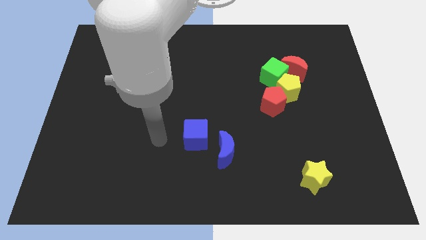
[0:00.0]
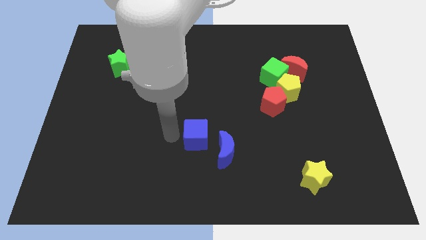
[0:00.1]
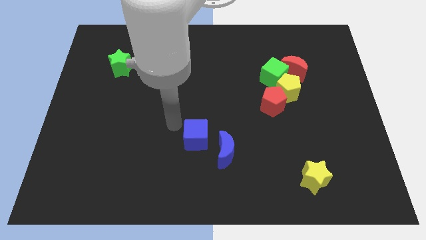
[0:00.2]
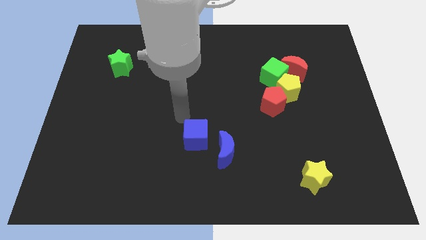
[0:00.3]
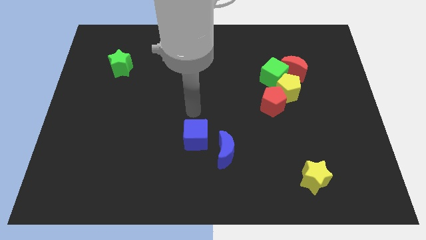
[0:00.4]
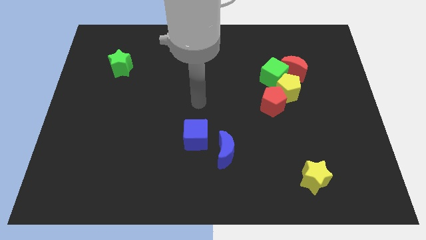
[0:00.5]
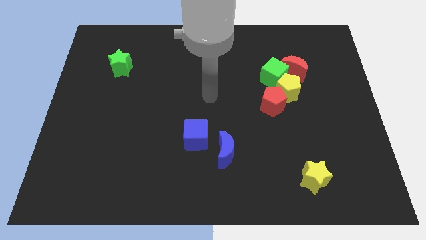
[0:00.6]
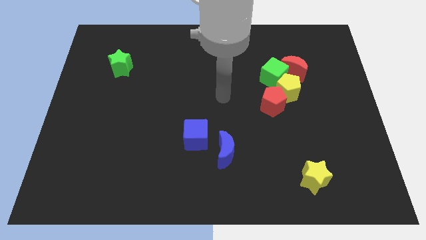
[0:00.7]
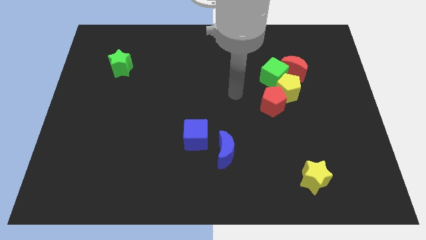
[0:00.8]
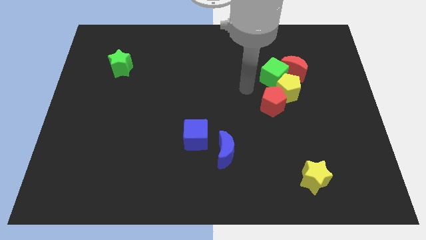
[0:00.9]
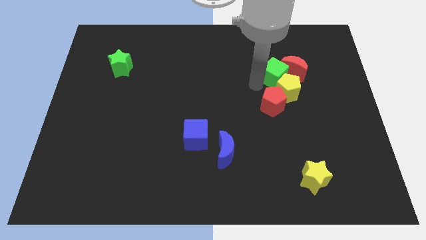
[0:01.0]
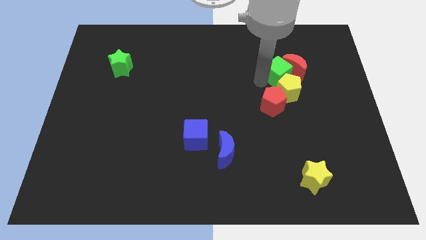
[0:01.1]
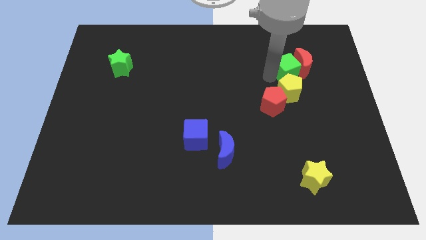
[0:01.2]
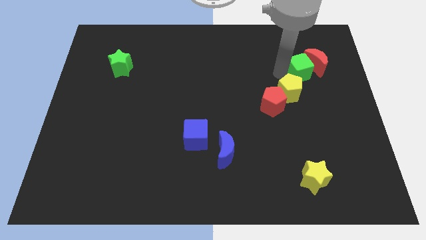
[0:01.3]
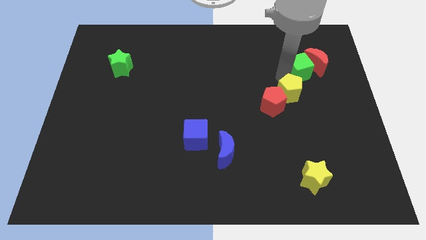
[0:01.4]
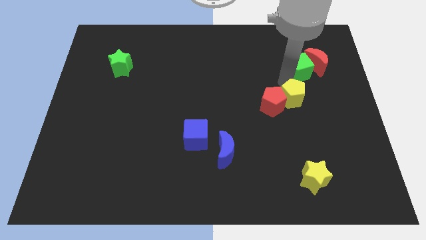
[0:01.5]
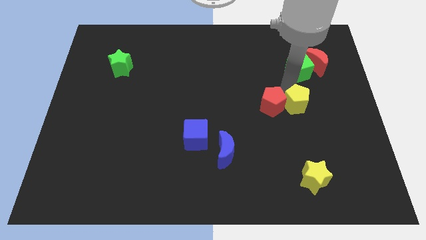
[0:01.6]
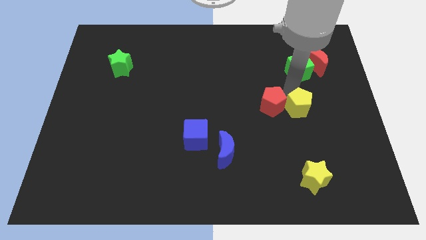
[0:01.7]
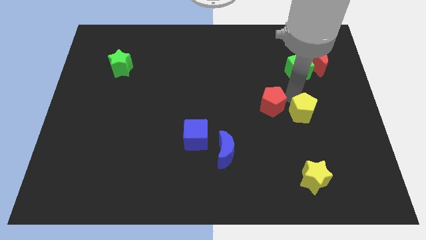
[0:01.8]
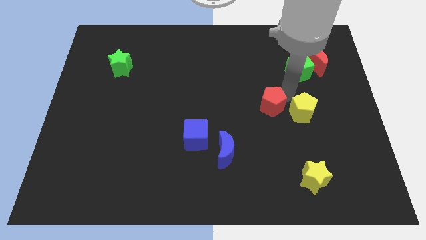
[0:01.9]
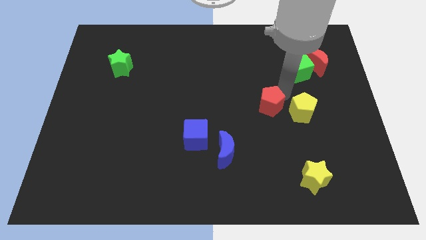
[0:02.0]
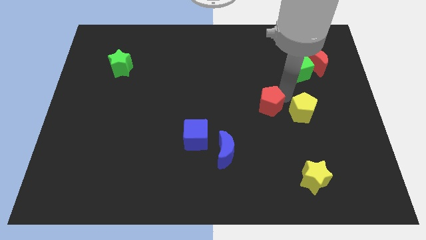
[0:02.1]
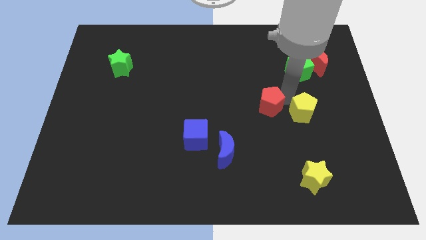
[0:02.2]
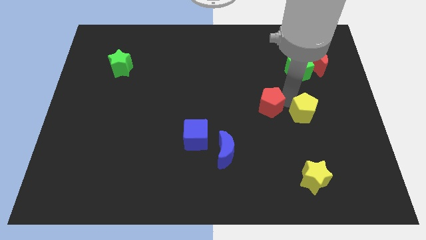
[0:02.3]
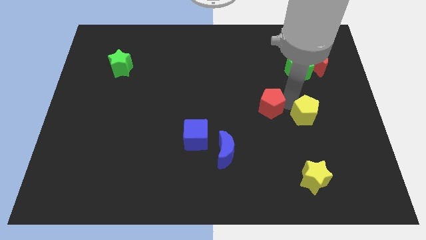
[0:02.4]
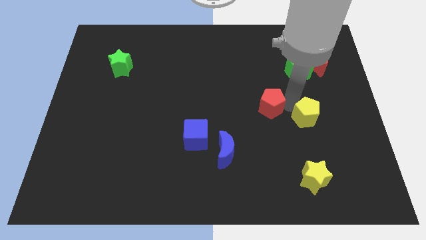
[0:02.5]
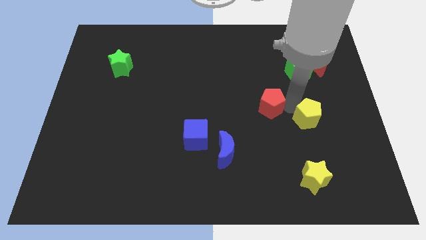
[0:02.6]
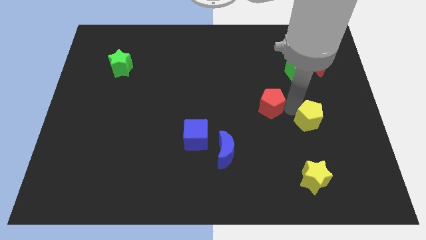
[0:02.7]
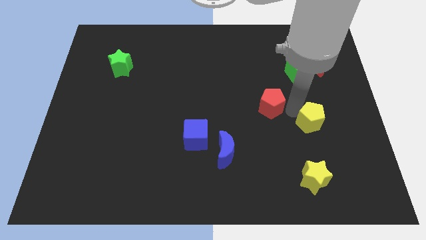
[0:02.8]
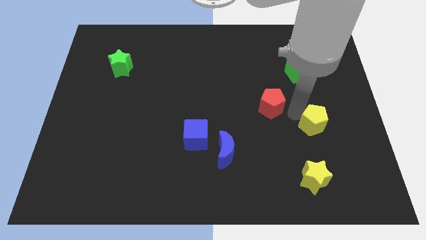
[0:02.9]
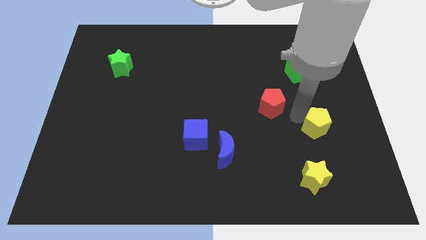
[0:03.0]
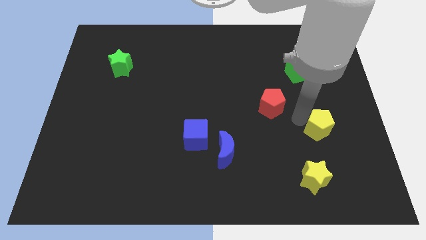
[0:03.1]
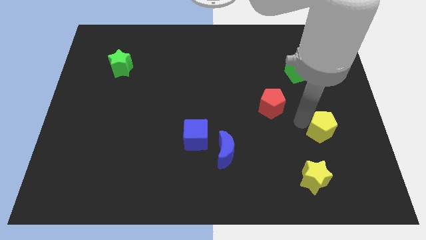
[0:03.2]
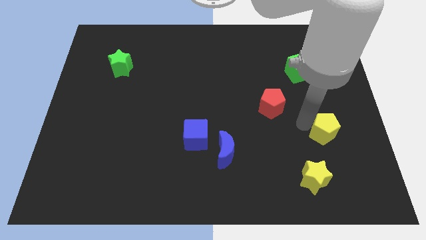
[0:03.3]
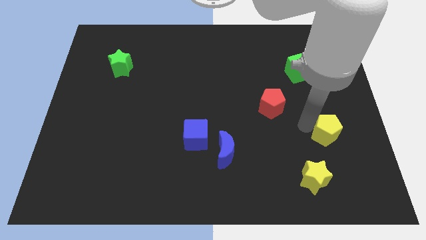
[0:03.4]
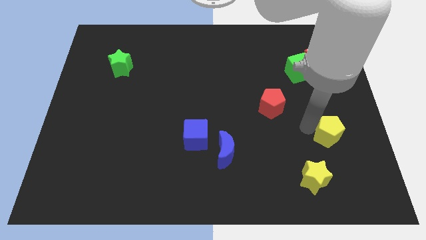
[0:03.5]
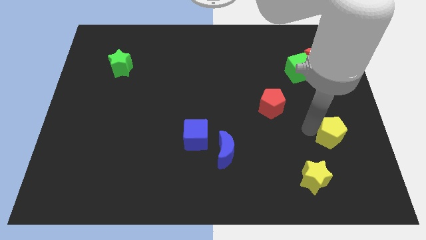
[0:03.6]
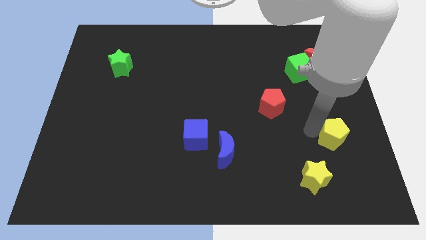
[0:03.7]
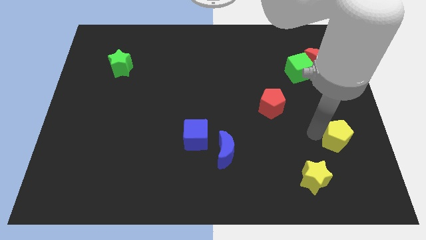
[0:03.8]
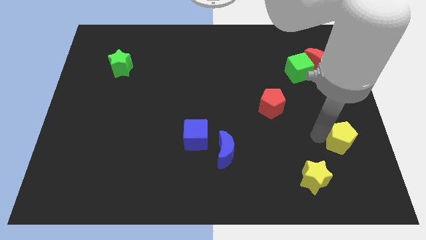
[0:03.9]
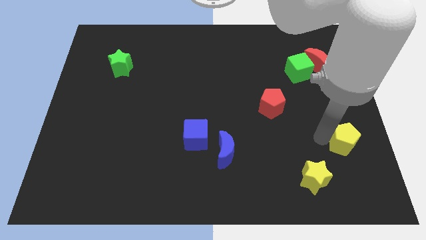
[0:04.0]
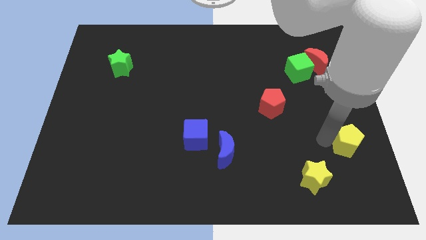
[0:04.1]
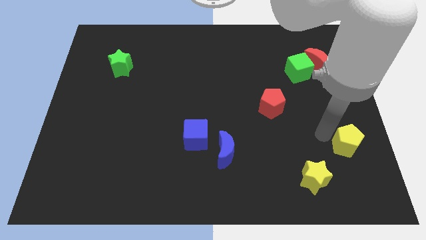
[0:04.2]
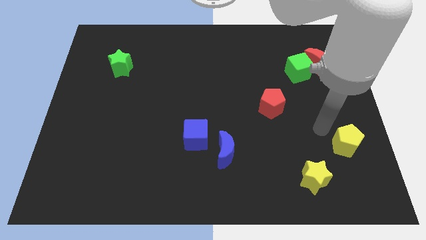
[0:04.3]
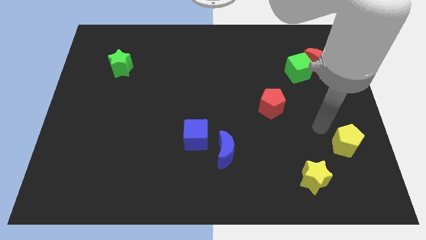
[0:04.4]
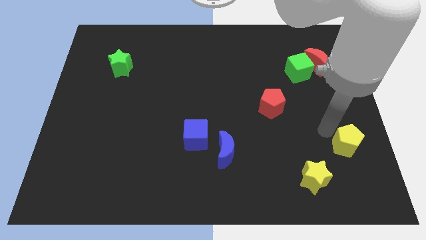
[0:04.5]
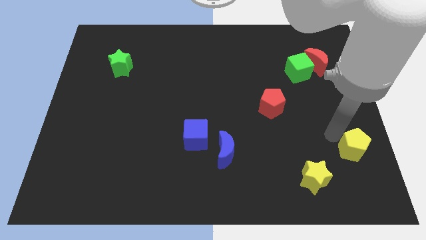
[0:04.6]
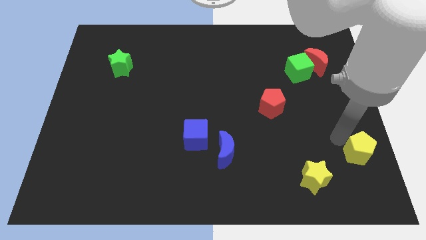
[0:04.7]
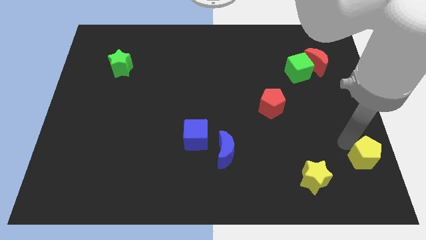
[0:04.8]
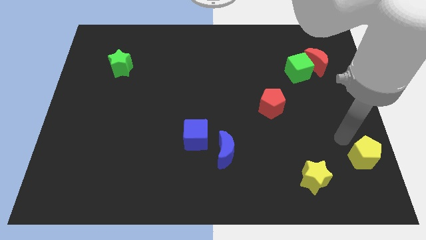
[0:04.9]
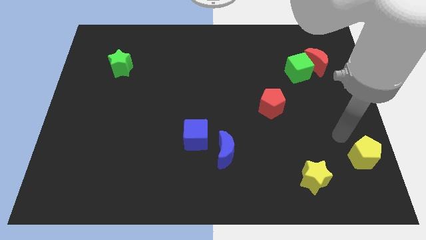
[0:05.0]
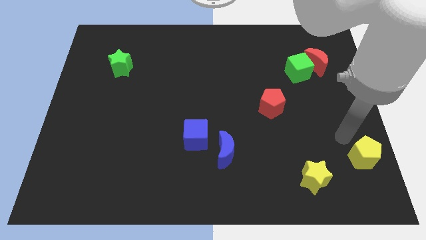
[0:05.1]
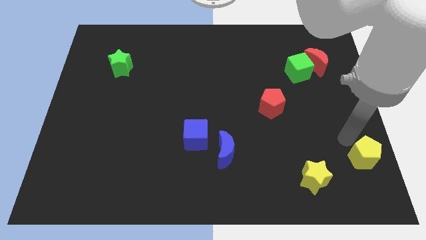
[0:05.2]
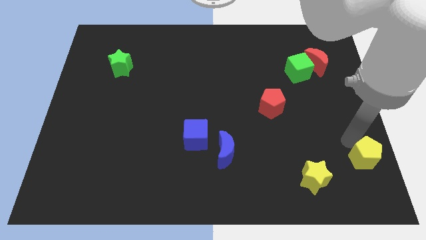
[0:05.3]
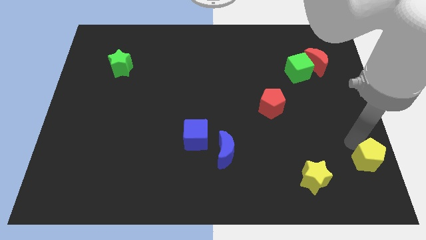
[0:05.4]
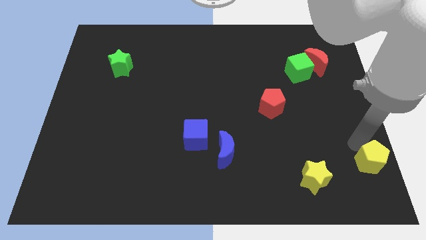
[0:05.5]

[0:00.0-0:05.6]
push the yellow pentagon to the lower right corner
